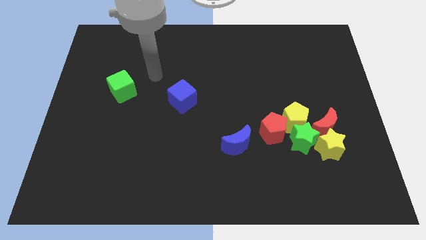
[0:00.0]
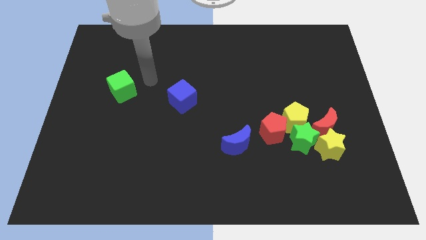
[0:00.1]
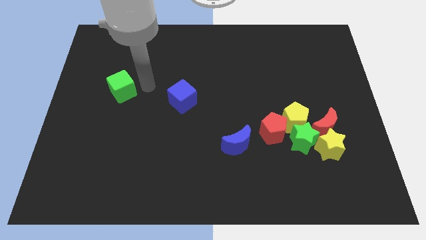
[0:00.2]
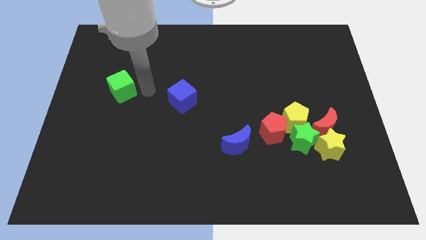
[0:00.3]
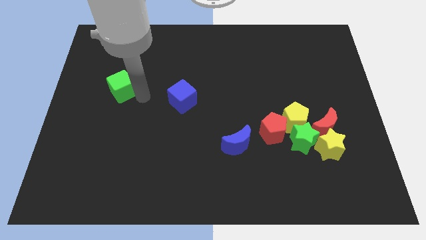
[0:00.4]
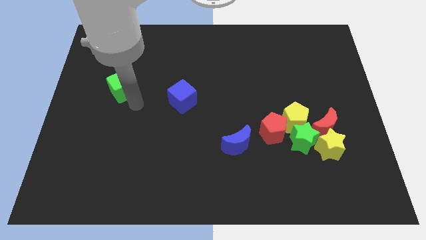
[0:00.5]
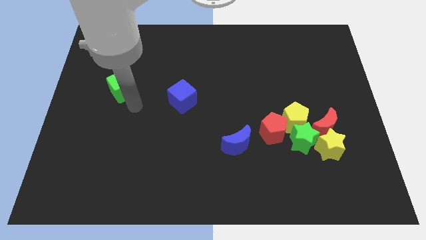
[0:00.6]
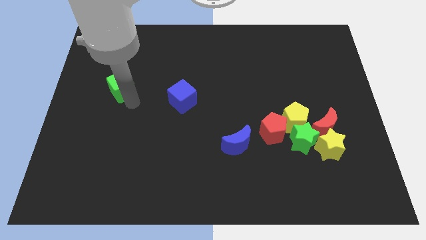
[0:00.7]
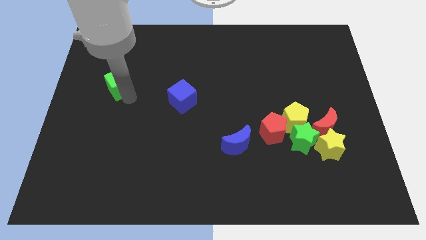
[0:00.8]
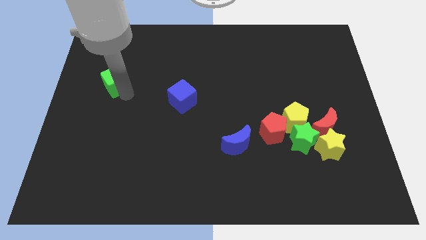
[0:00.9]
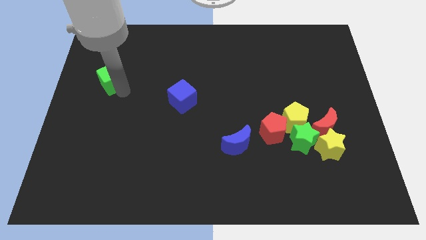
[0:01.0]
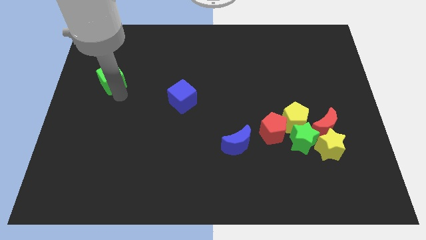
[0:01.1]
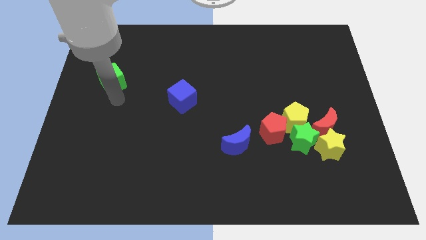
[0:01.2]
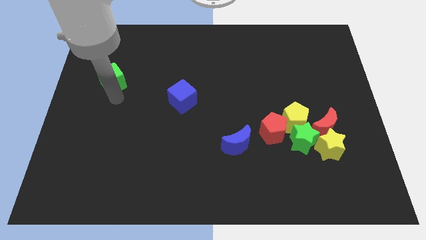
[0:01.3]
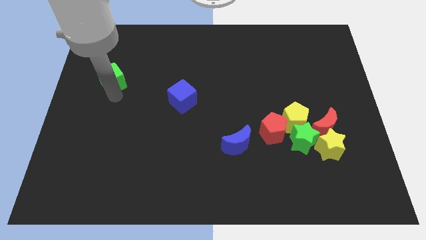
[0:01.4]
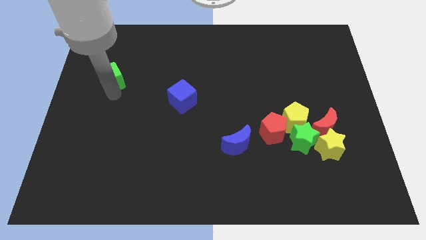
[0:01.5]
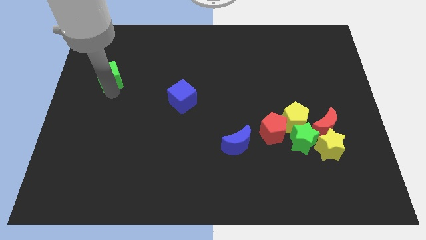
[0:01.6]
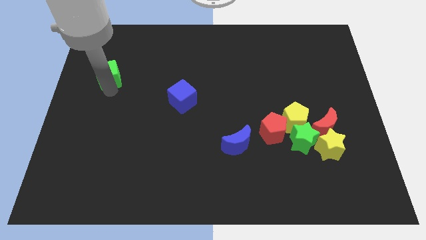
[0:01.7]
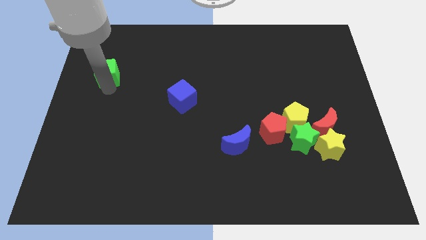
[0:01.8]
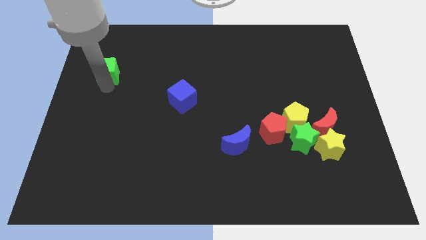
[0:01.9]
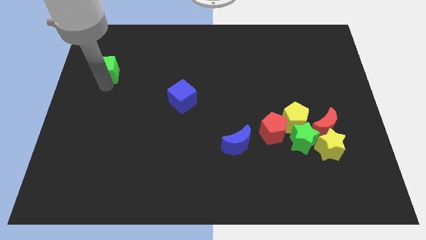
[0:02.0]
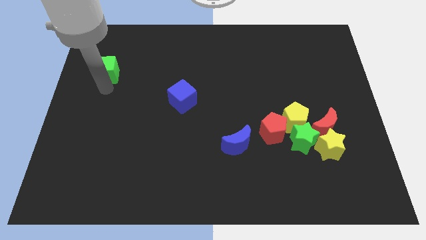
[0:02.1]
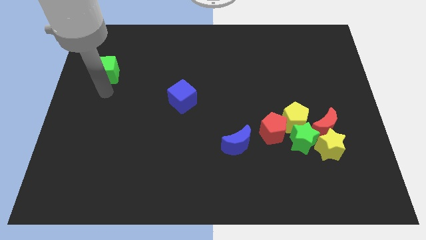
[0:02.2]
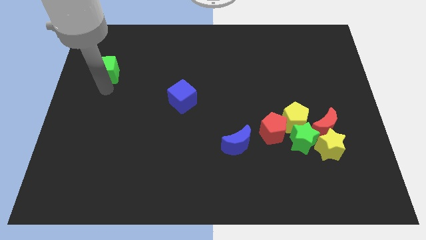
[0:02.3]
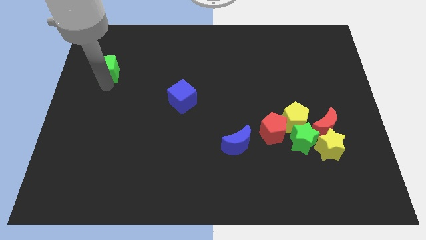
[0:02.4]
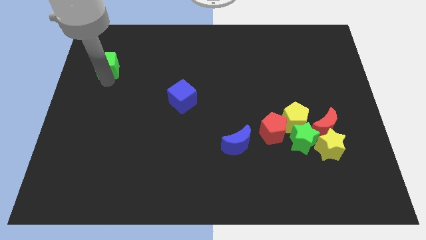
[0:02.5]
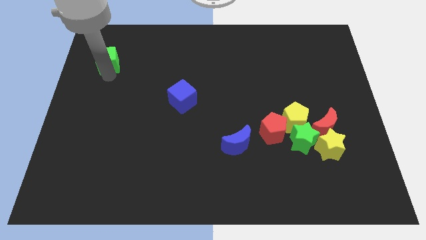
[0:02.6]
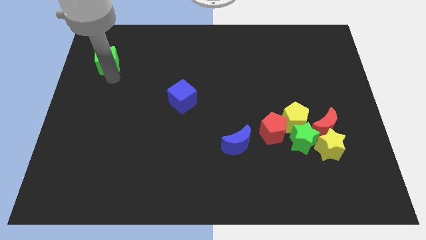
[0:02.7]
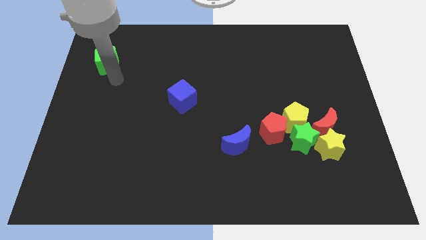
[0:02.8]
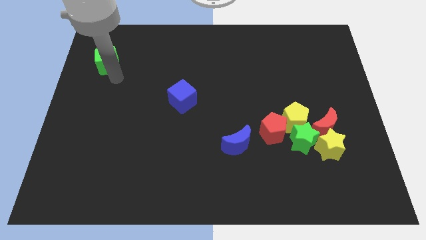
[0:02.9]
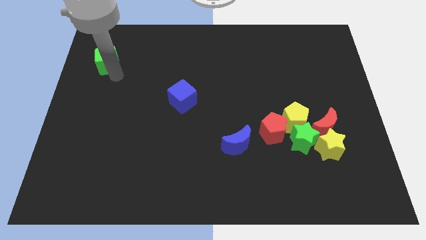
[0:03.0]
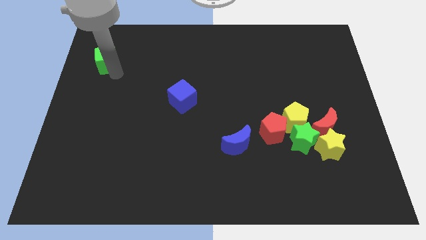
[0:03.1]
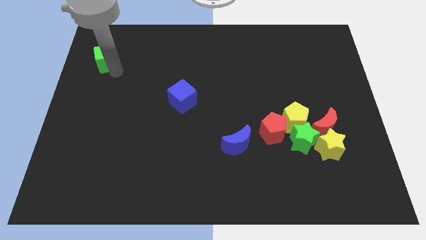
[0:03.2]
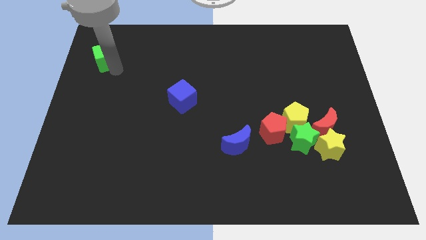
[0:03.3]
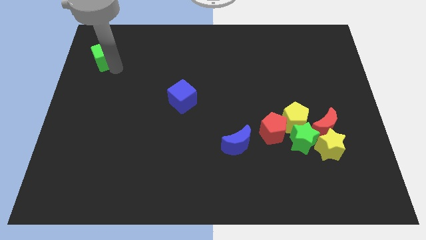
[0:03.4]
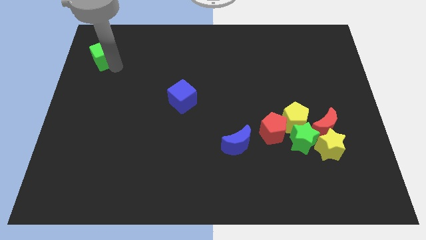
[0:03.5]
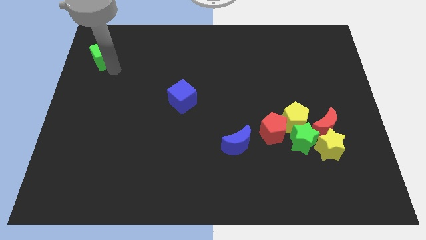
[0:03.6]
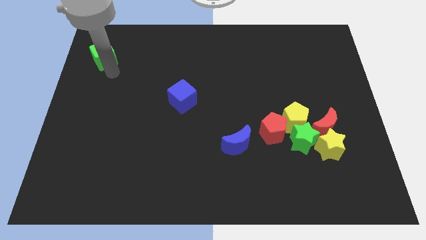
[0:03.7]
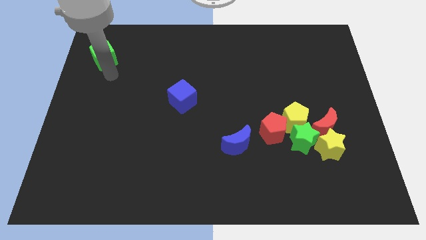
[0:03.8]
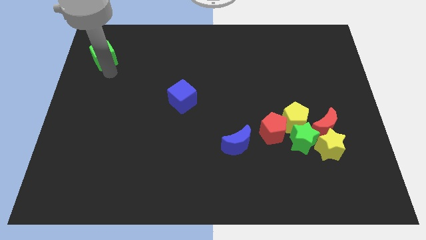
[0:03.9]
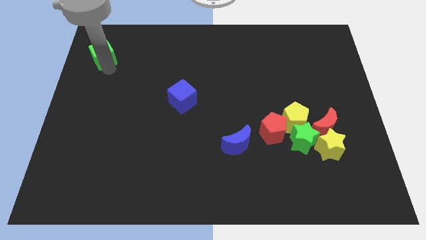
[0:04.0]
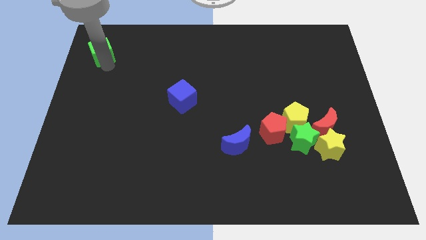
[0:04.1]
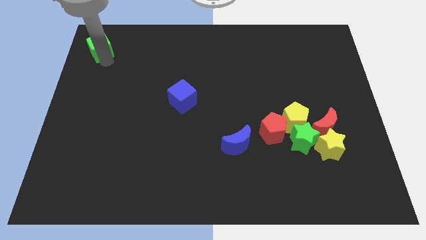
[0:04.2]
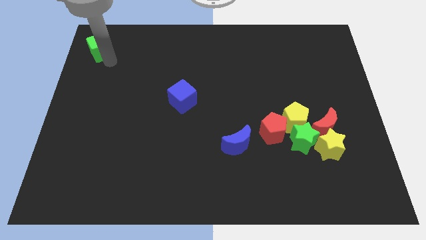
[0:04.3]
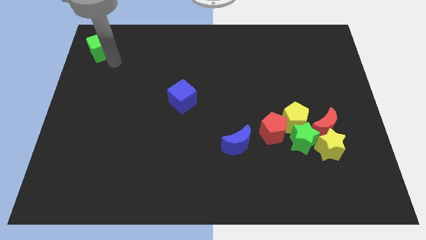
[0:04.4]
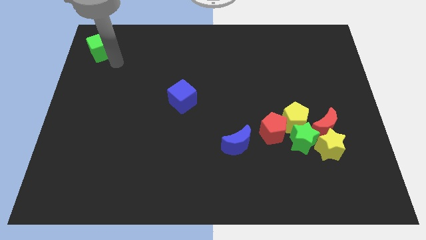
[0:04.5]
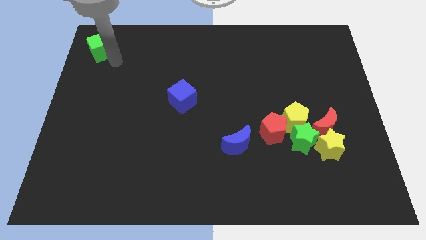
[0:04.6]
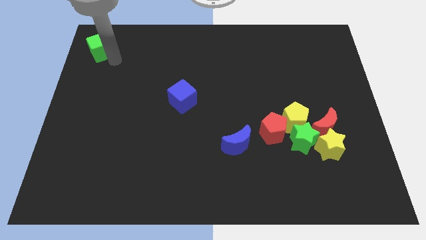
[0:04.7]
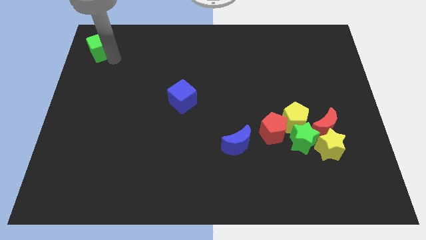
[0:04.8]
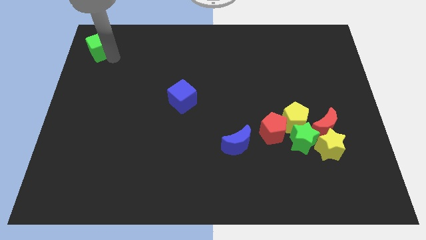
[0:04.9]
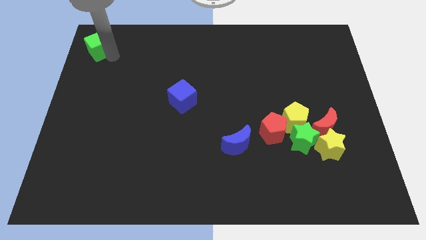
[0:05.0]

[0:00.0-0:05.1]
push the green cube to the upper left corner

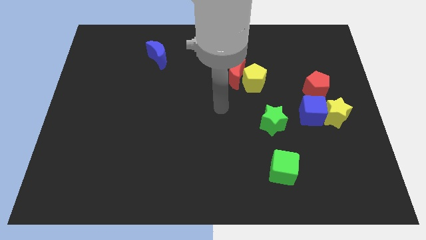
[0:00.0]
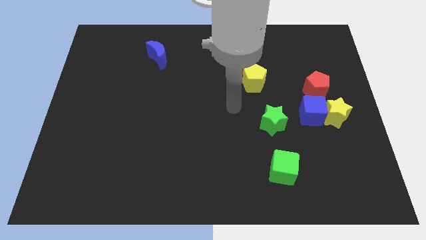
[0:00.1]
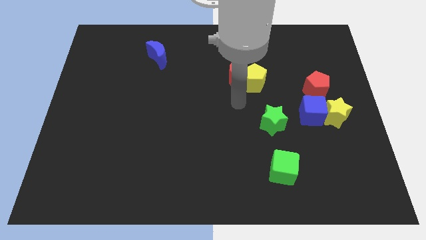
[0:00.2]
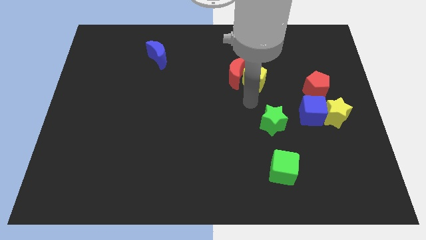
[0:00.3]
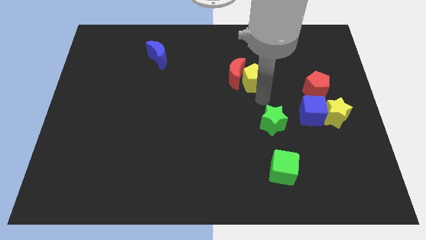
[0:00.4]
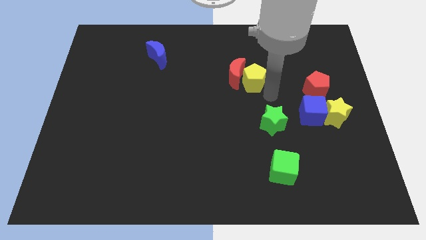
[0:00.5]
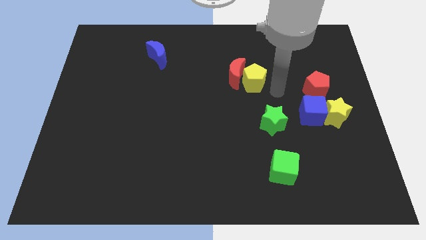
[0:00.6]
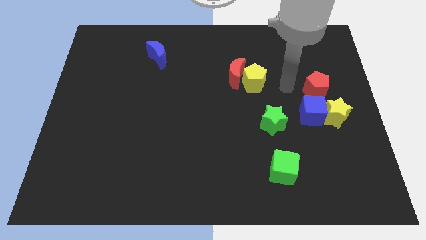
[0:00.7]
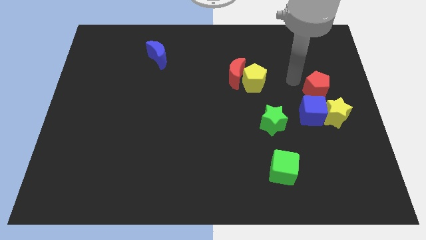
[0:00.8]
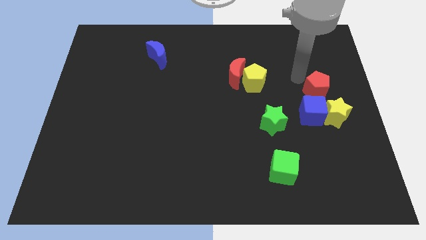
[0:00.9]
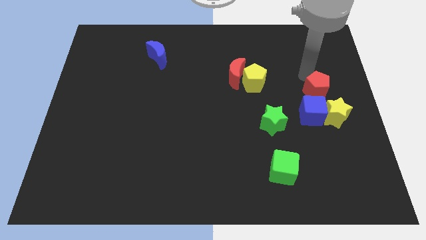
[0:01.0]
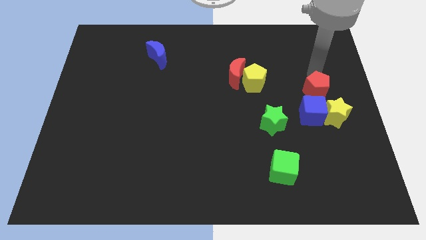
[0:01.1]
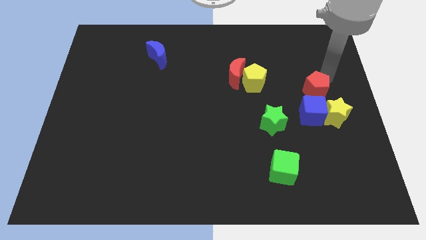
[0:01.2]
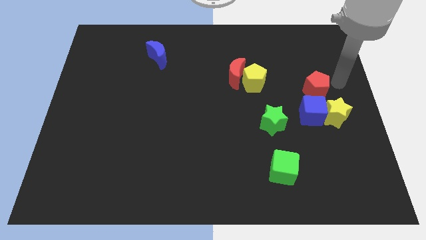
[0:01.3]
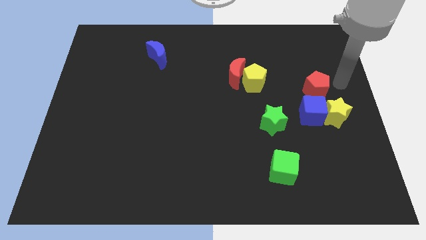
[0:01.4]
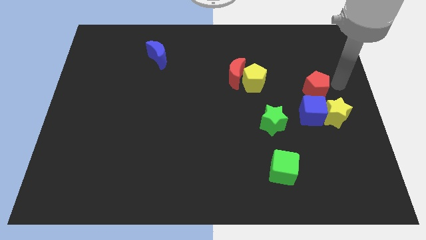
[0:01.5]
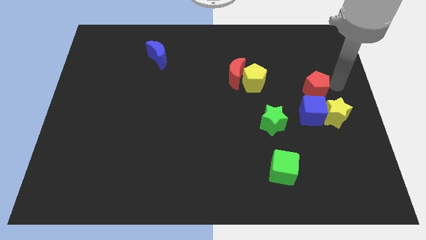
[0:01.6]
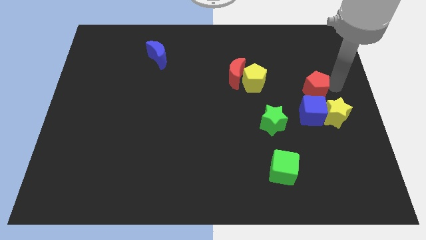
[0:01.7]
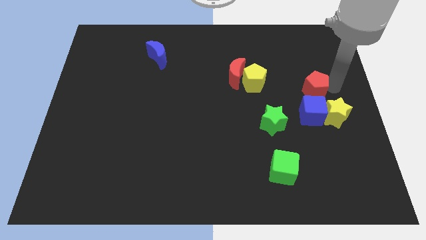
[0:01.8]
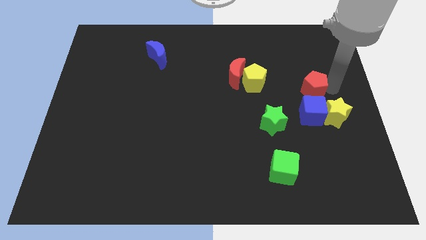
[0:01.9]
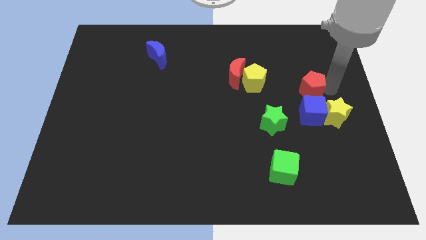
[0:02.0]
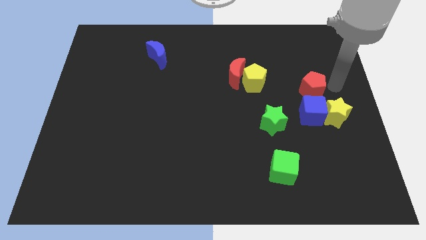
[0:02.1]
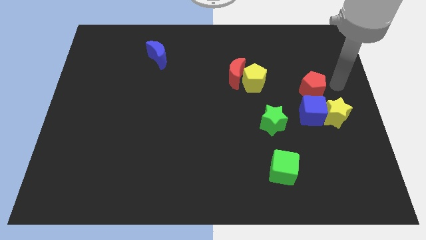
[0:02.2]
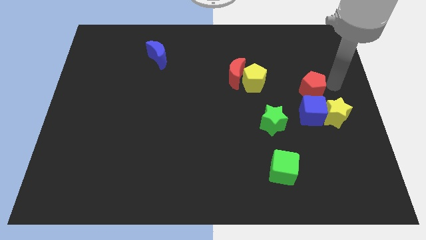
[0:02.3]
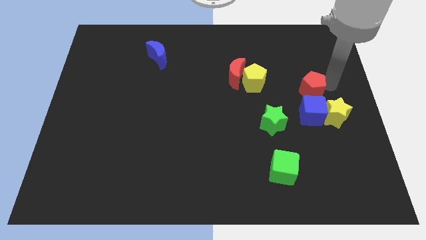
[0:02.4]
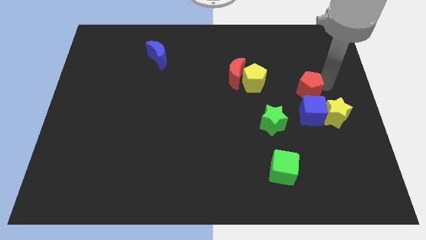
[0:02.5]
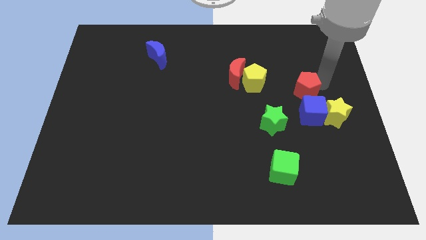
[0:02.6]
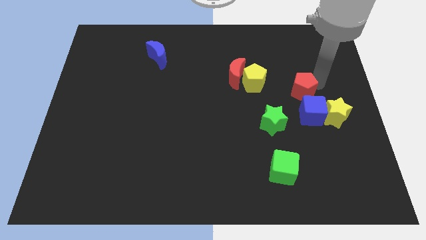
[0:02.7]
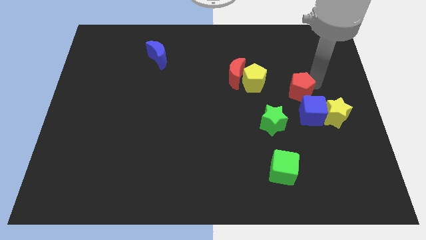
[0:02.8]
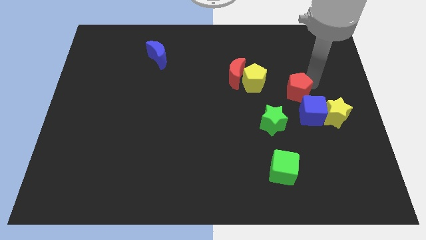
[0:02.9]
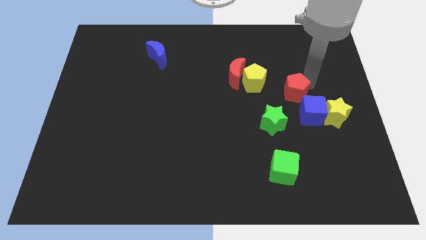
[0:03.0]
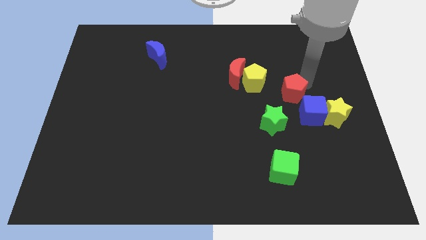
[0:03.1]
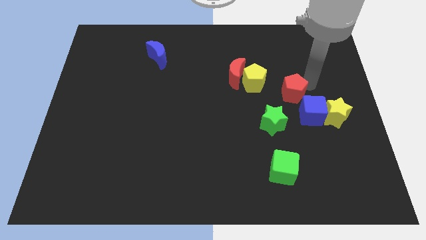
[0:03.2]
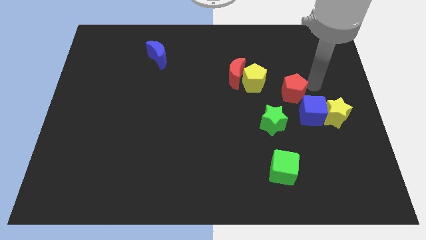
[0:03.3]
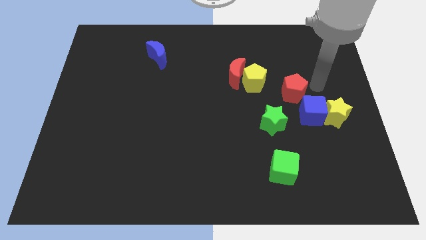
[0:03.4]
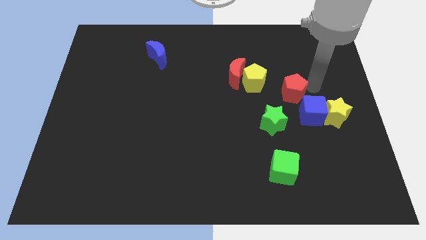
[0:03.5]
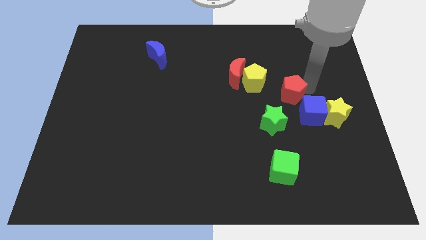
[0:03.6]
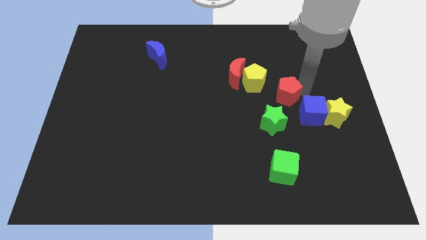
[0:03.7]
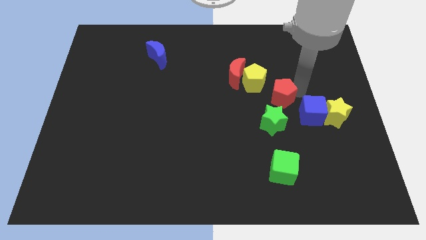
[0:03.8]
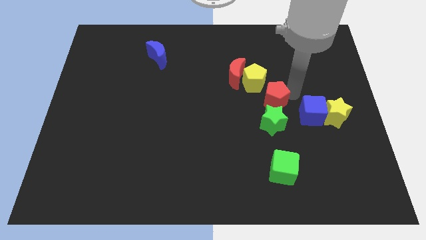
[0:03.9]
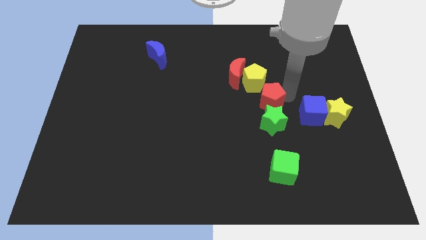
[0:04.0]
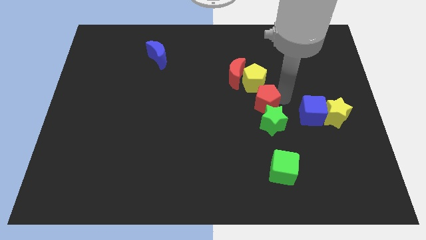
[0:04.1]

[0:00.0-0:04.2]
push the red pentagon to the middle of the board
